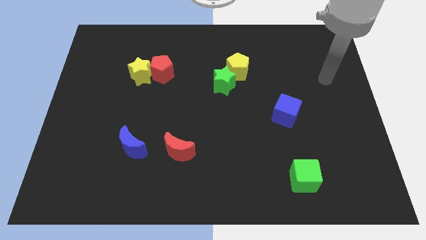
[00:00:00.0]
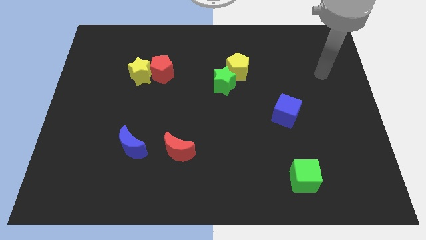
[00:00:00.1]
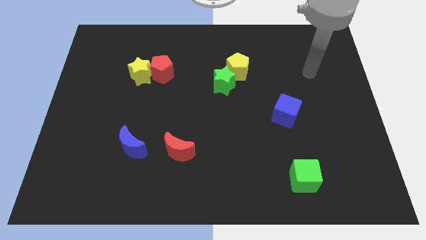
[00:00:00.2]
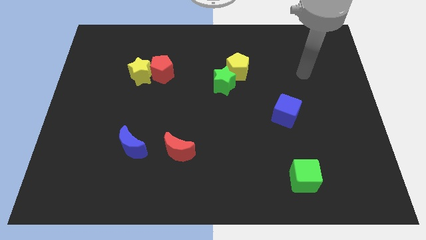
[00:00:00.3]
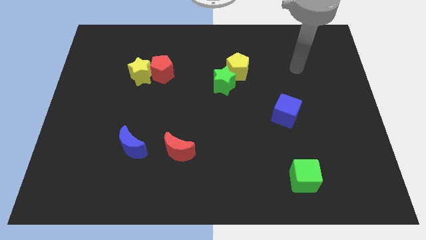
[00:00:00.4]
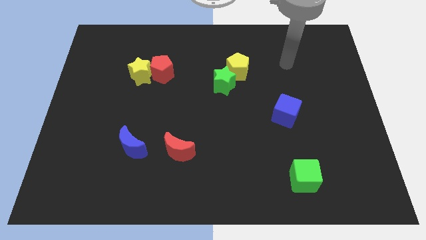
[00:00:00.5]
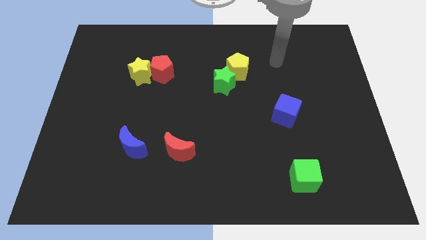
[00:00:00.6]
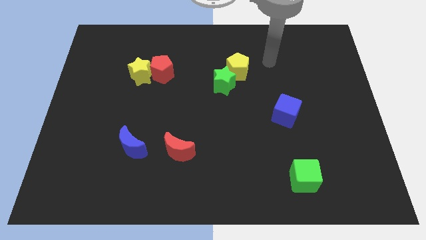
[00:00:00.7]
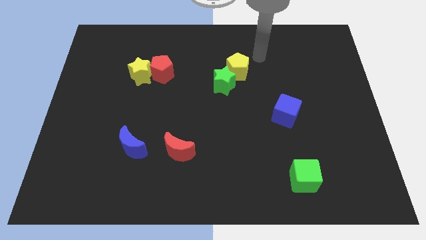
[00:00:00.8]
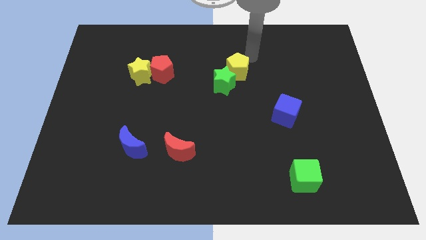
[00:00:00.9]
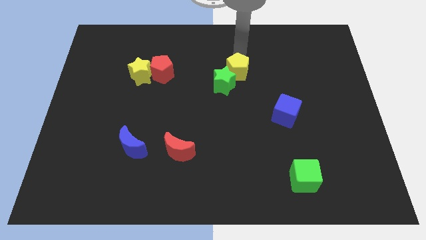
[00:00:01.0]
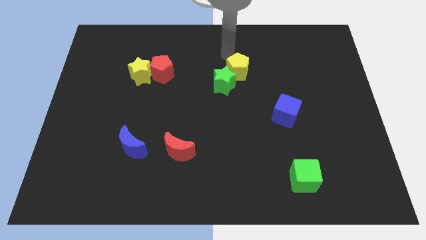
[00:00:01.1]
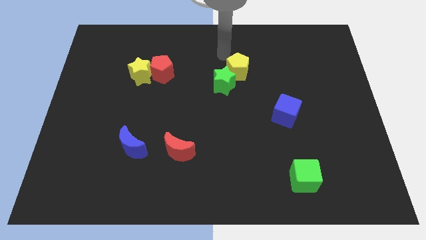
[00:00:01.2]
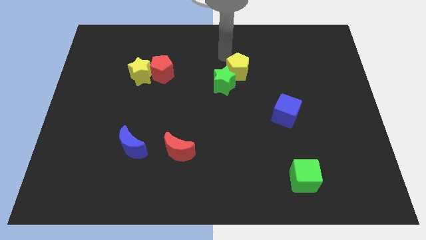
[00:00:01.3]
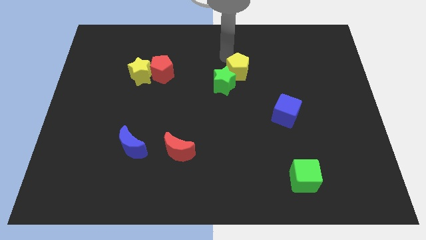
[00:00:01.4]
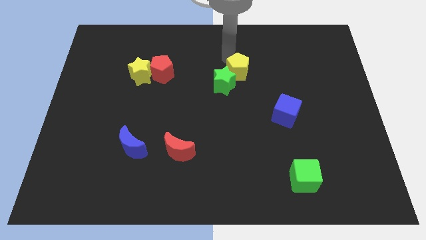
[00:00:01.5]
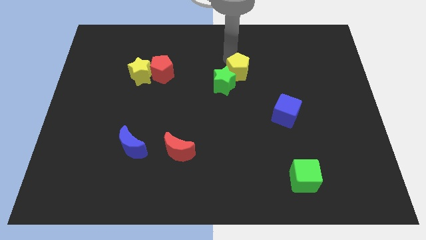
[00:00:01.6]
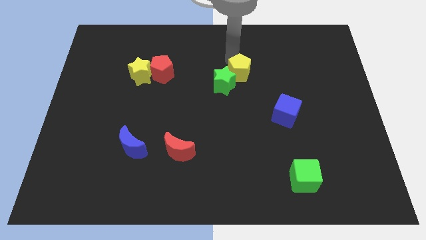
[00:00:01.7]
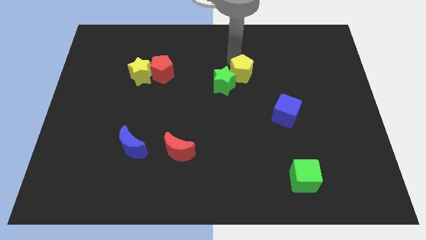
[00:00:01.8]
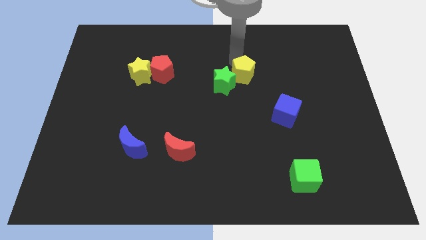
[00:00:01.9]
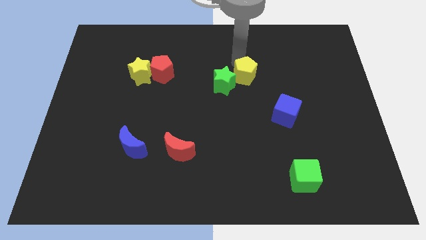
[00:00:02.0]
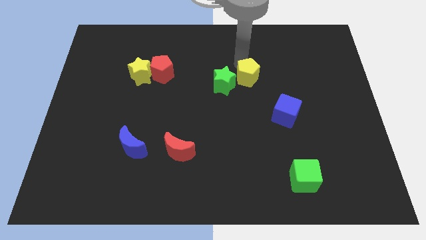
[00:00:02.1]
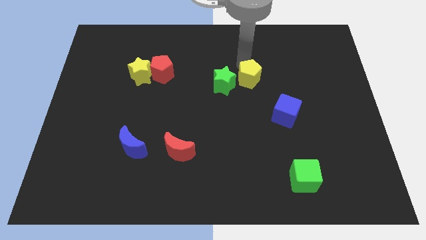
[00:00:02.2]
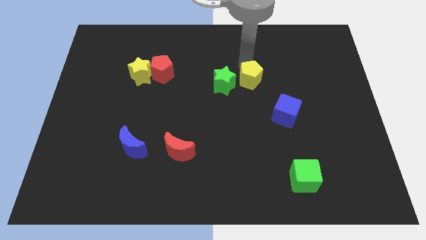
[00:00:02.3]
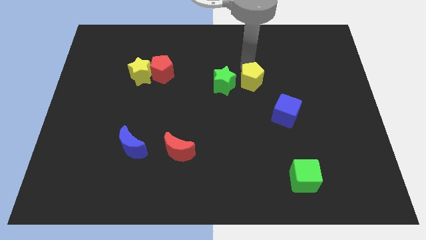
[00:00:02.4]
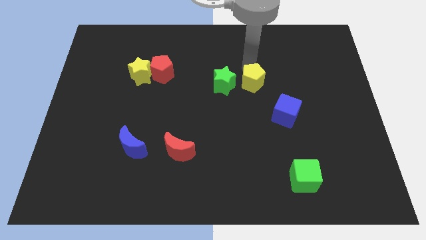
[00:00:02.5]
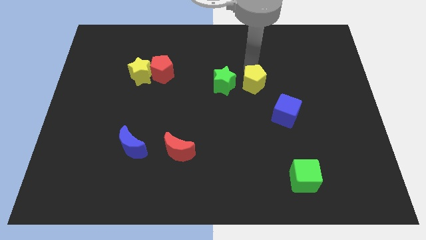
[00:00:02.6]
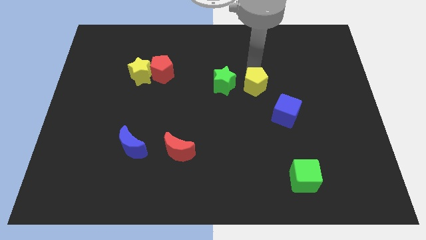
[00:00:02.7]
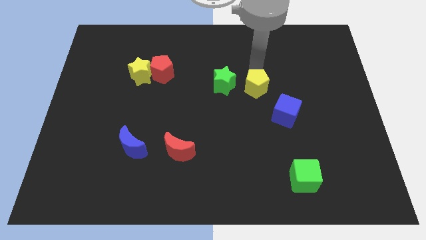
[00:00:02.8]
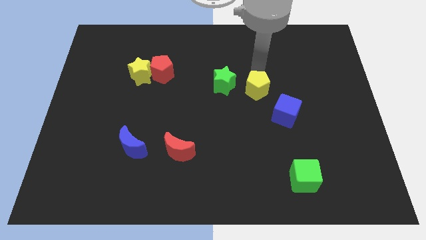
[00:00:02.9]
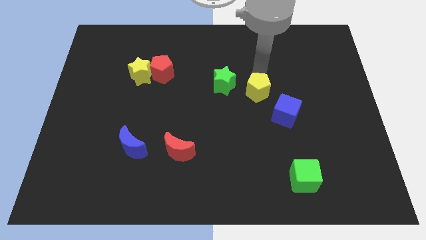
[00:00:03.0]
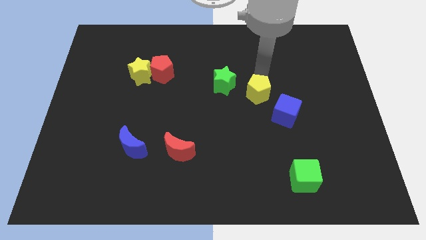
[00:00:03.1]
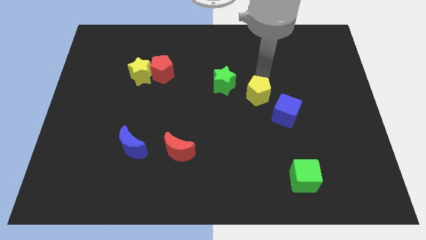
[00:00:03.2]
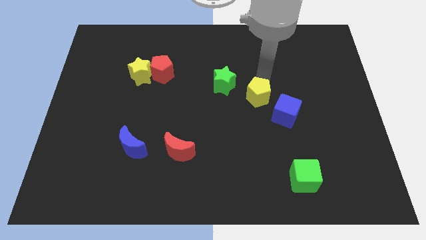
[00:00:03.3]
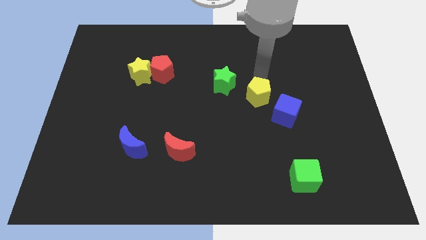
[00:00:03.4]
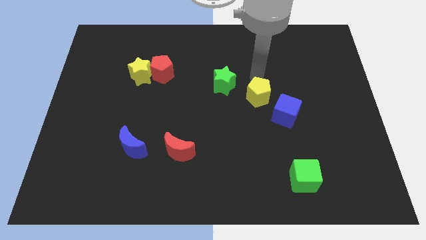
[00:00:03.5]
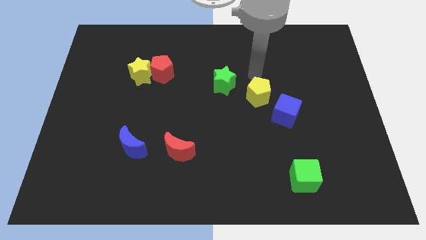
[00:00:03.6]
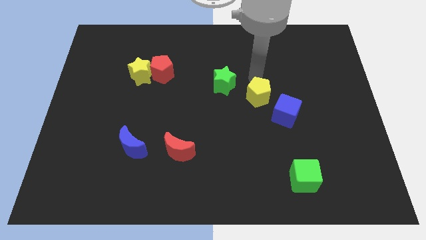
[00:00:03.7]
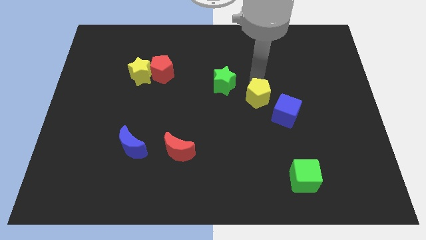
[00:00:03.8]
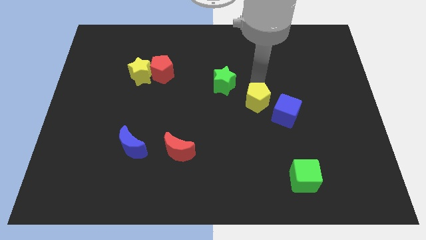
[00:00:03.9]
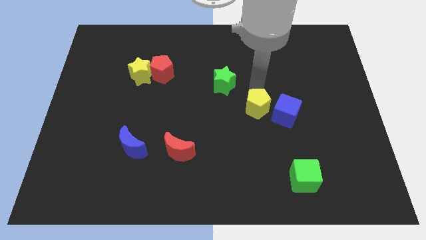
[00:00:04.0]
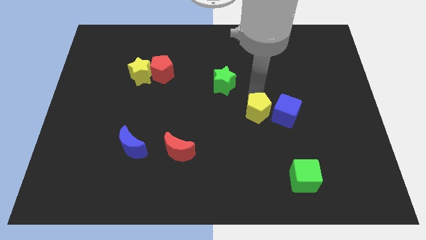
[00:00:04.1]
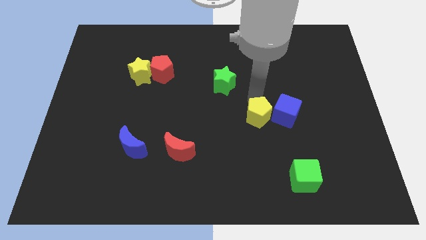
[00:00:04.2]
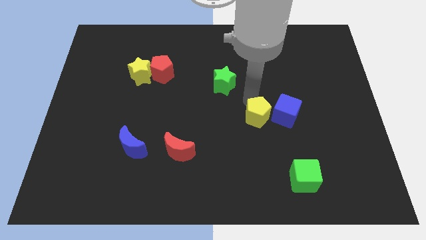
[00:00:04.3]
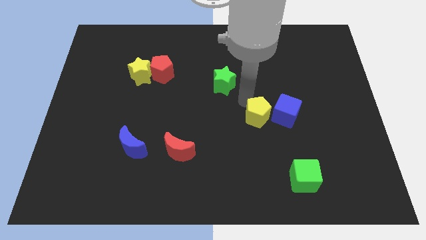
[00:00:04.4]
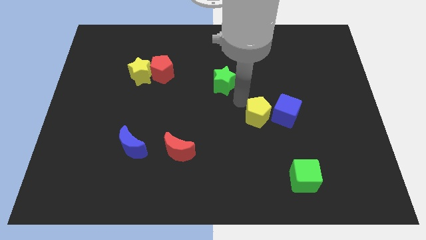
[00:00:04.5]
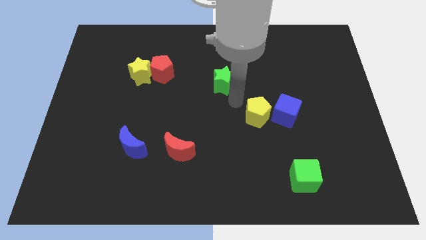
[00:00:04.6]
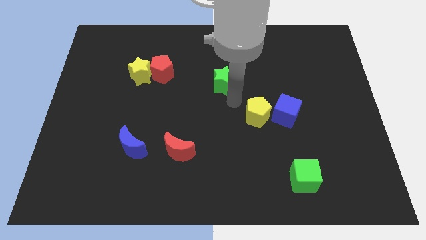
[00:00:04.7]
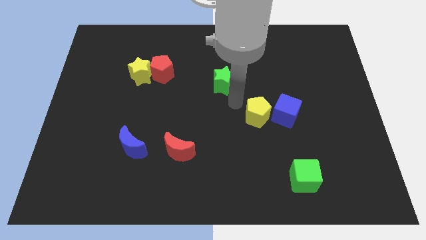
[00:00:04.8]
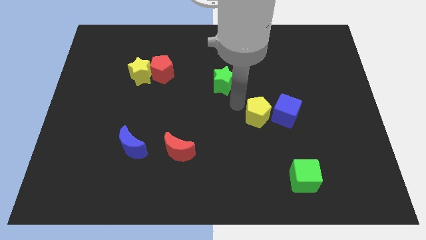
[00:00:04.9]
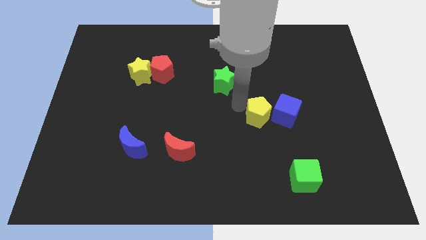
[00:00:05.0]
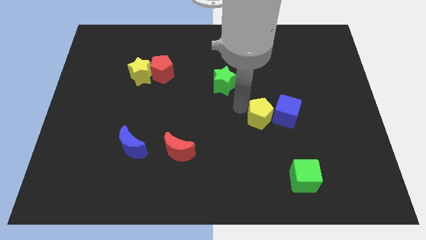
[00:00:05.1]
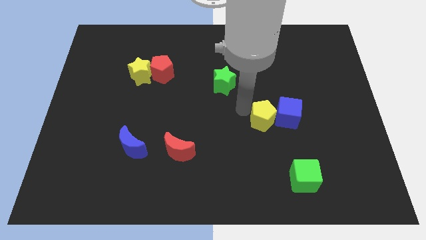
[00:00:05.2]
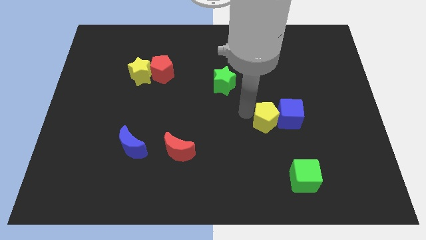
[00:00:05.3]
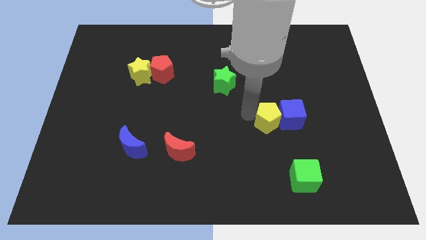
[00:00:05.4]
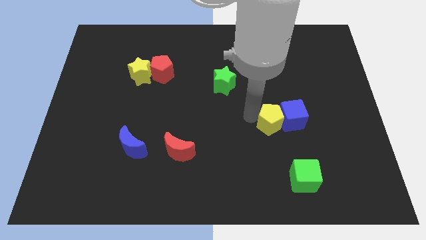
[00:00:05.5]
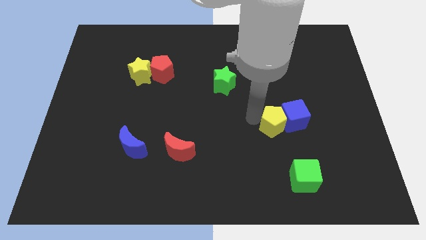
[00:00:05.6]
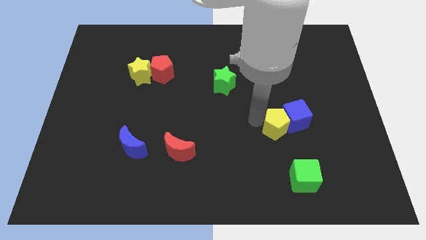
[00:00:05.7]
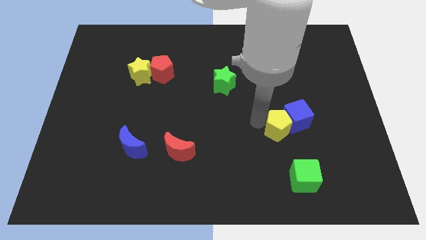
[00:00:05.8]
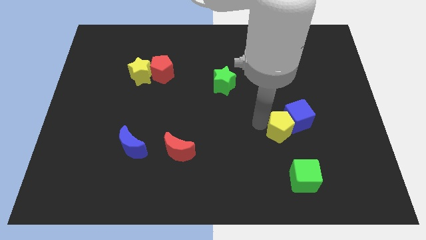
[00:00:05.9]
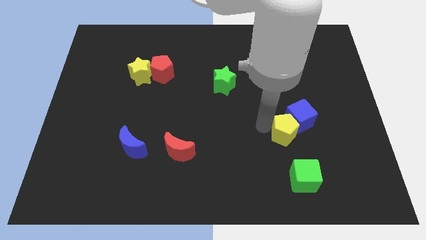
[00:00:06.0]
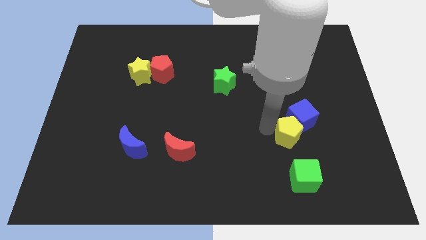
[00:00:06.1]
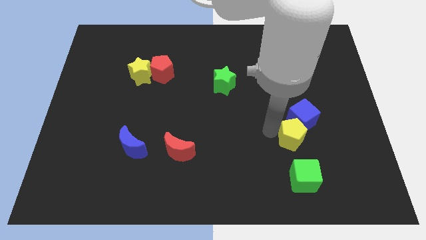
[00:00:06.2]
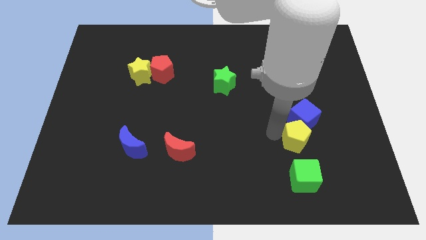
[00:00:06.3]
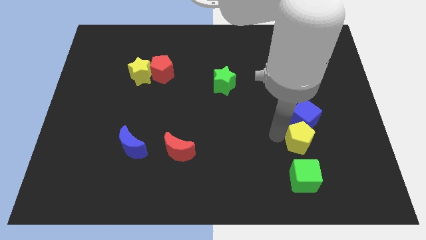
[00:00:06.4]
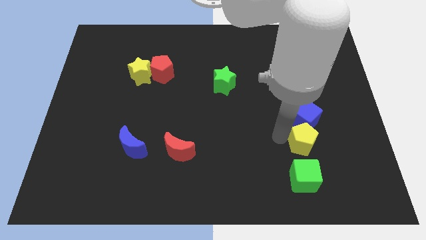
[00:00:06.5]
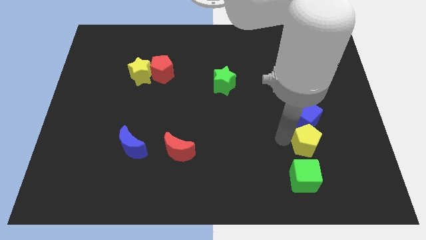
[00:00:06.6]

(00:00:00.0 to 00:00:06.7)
move the yellow pentagon diagonally up and to the right of the green cube
